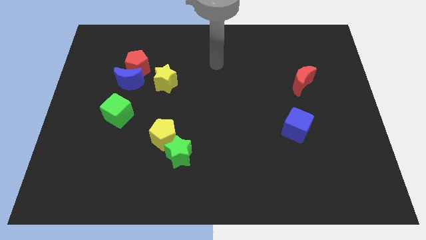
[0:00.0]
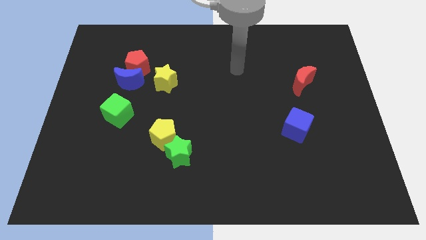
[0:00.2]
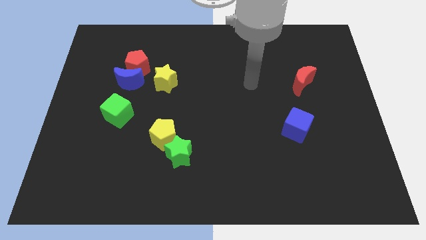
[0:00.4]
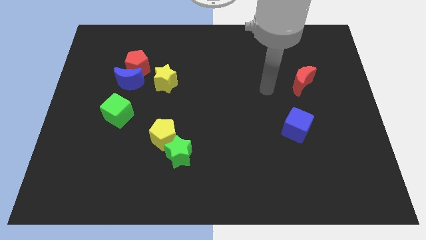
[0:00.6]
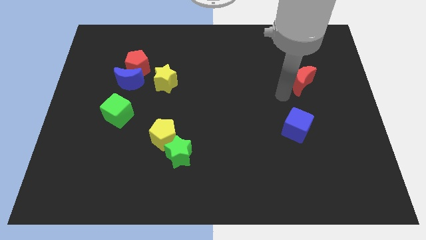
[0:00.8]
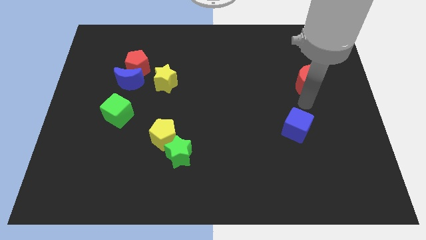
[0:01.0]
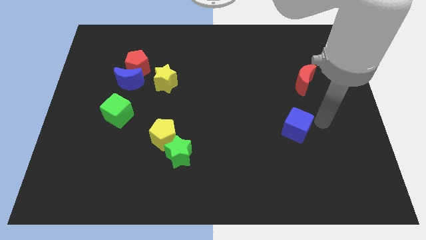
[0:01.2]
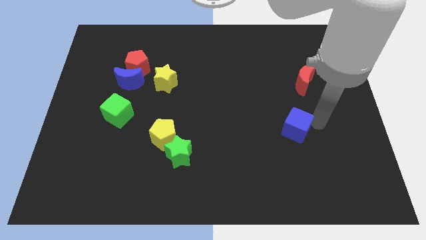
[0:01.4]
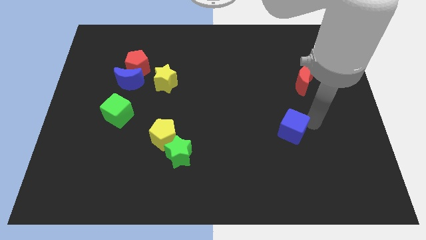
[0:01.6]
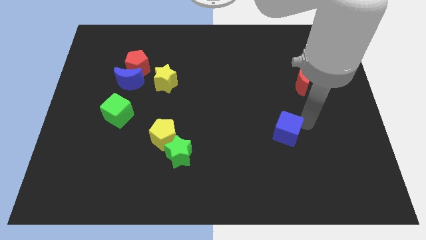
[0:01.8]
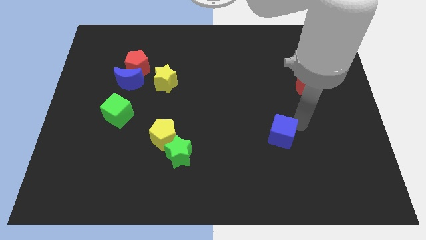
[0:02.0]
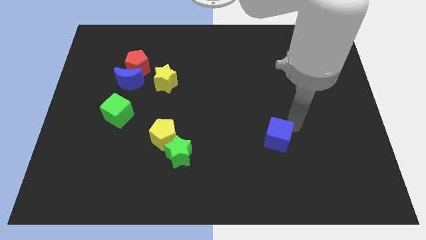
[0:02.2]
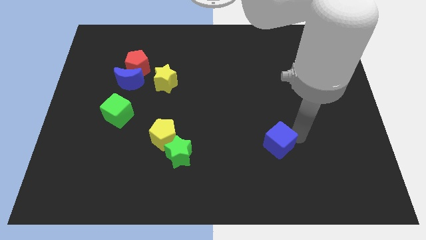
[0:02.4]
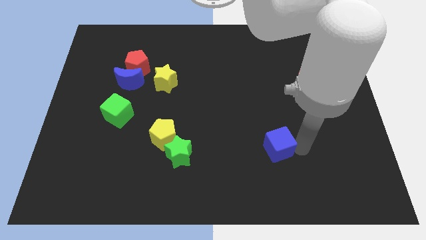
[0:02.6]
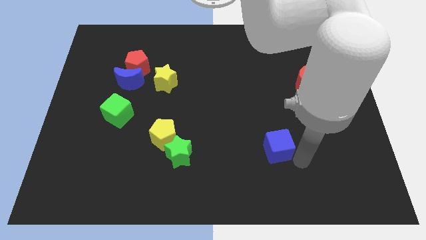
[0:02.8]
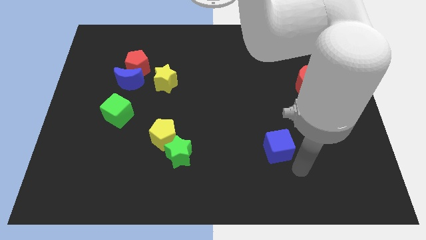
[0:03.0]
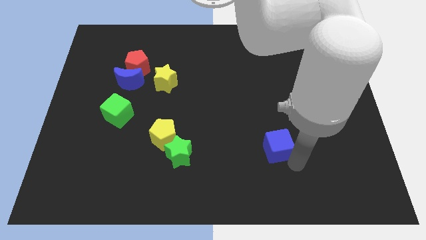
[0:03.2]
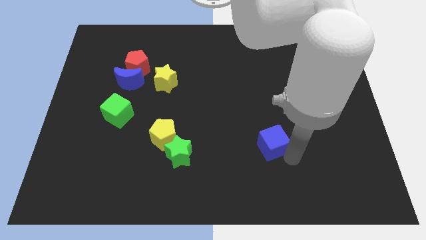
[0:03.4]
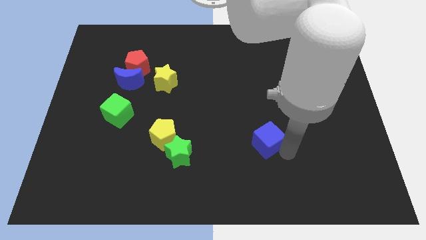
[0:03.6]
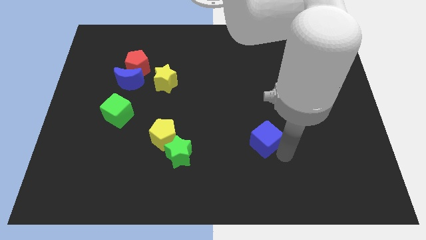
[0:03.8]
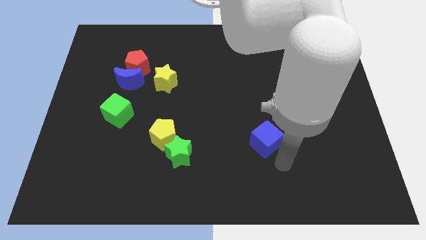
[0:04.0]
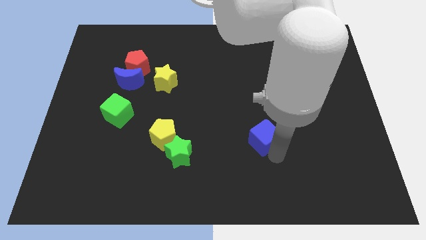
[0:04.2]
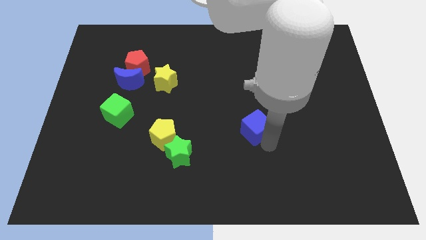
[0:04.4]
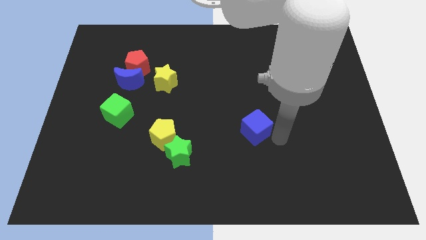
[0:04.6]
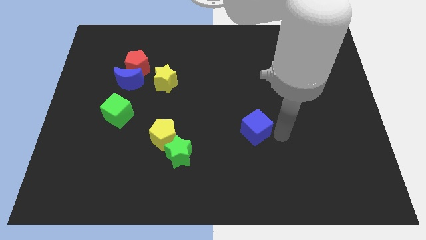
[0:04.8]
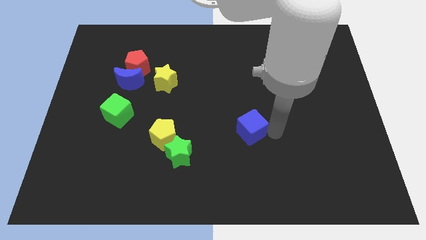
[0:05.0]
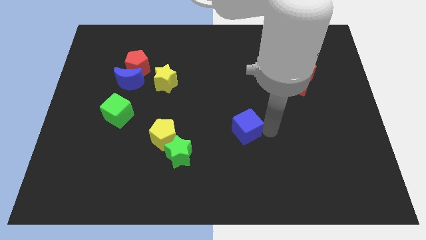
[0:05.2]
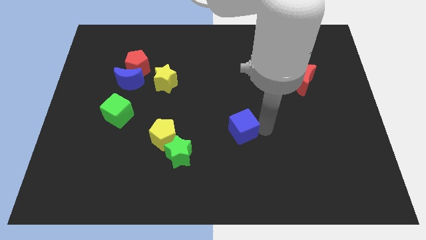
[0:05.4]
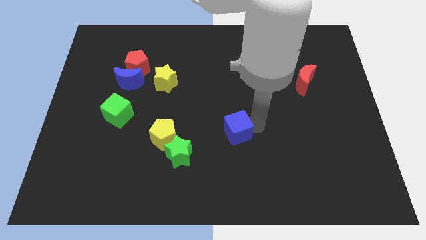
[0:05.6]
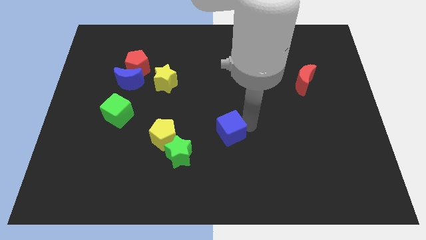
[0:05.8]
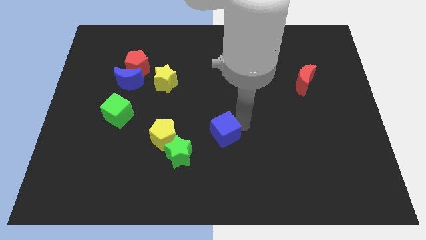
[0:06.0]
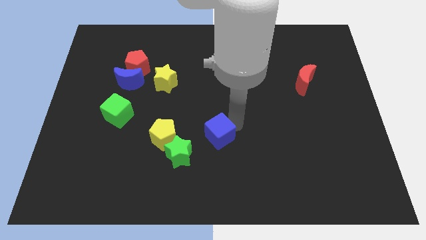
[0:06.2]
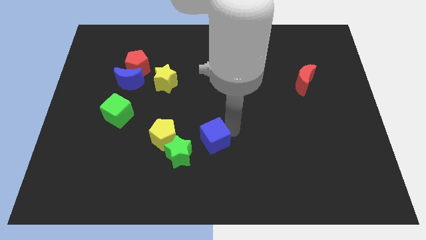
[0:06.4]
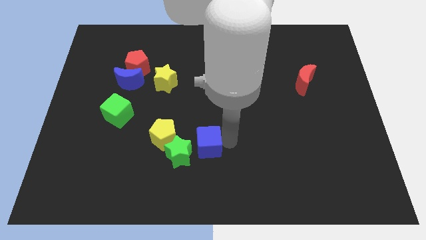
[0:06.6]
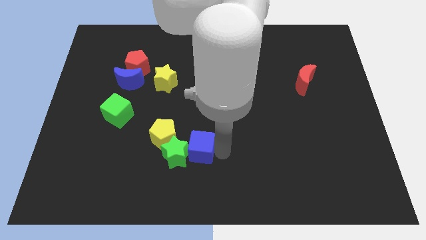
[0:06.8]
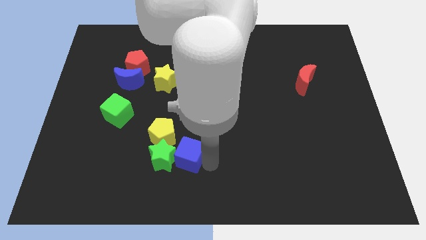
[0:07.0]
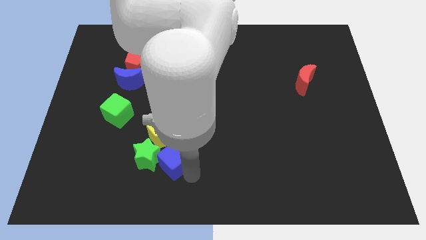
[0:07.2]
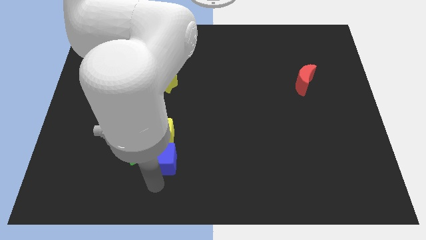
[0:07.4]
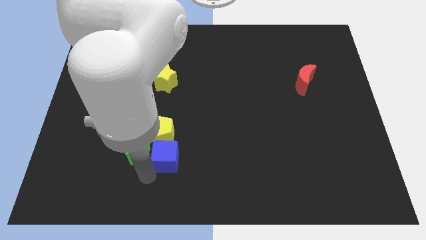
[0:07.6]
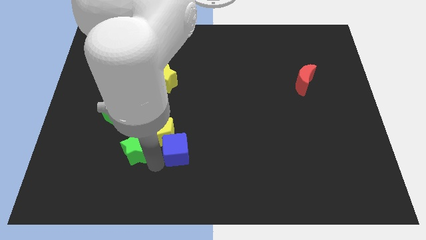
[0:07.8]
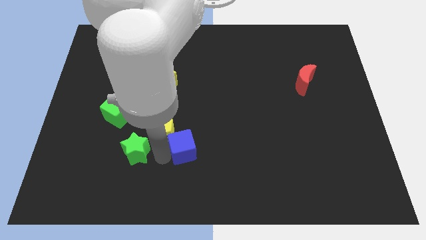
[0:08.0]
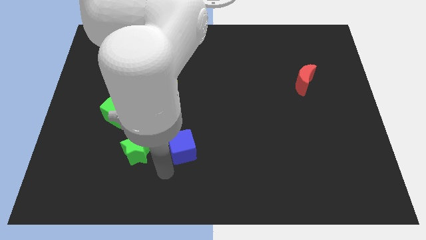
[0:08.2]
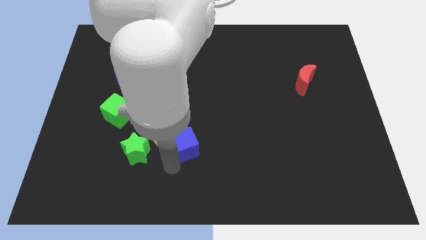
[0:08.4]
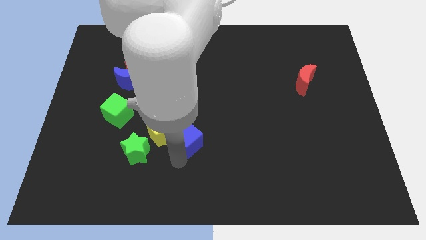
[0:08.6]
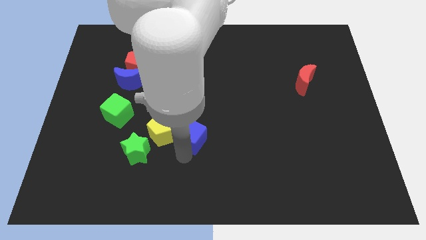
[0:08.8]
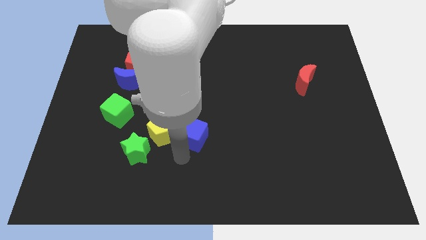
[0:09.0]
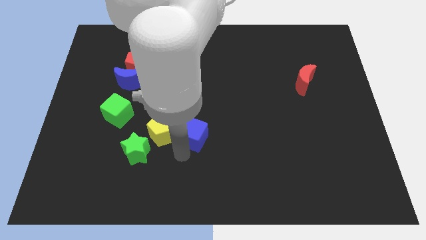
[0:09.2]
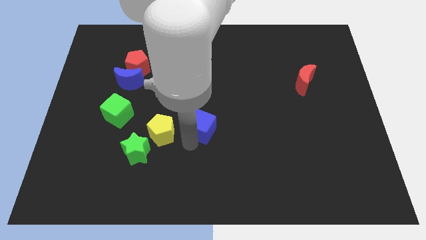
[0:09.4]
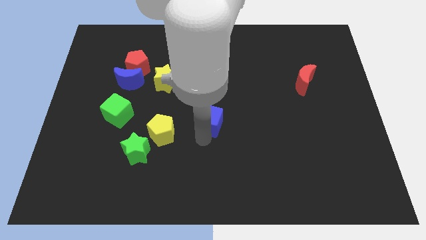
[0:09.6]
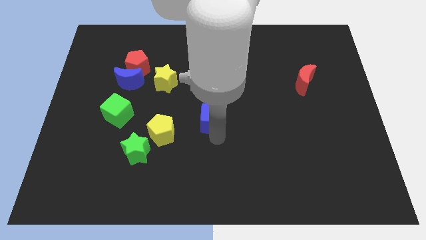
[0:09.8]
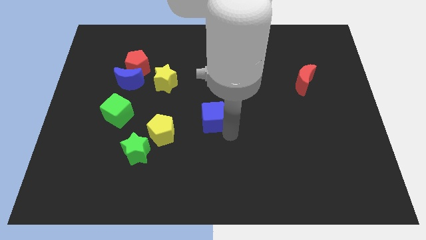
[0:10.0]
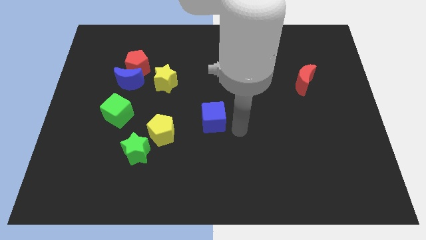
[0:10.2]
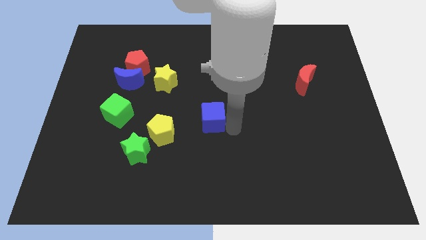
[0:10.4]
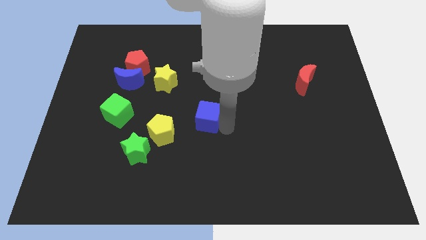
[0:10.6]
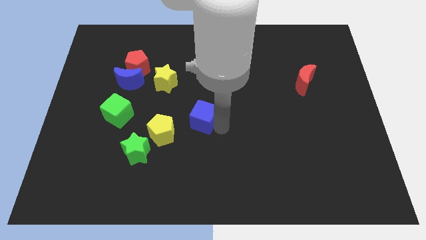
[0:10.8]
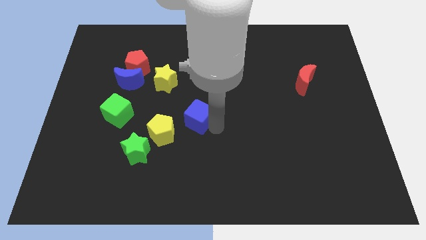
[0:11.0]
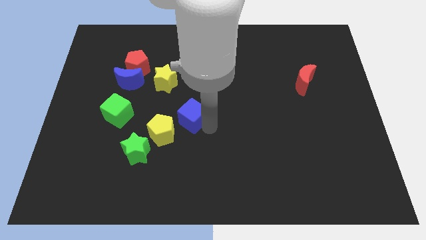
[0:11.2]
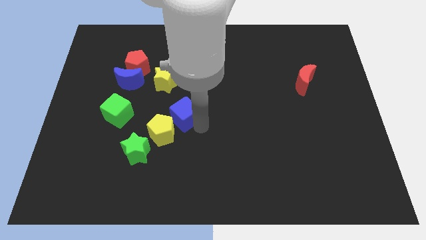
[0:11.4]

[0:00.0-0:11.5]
slide the blue cube to the top of the yellow pentagon

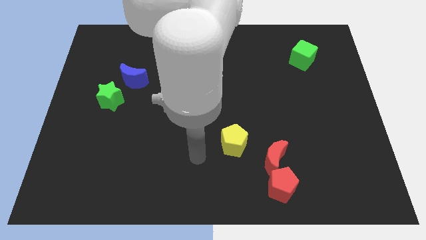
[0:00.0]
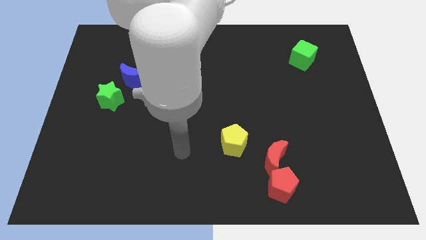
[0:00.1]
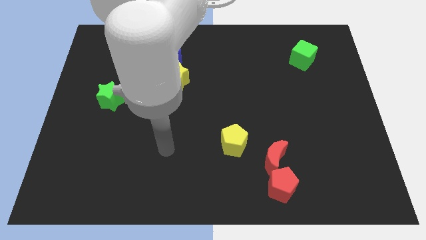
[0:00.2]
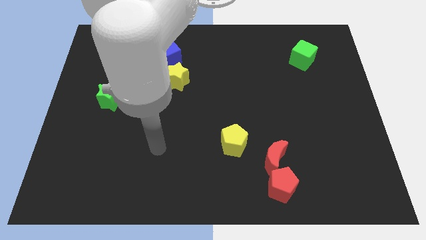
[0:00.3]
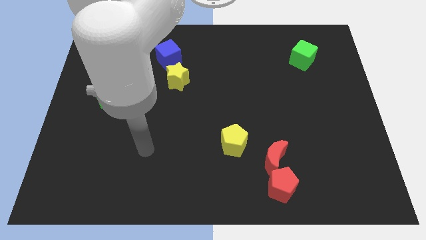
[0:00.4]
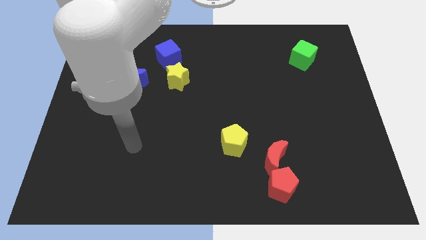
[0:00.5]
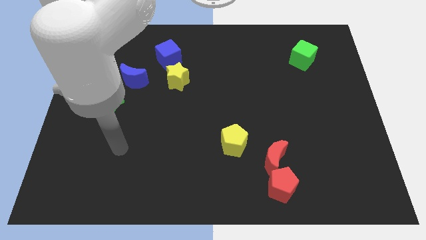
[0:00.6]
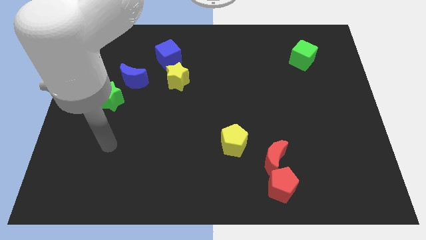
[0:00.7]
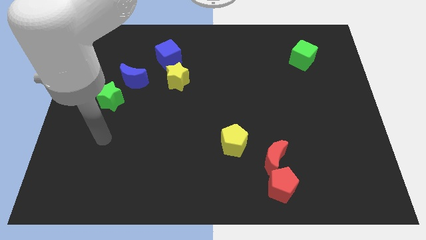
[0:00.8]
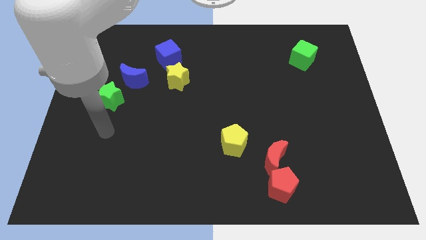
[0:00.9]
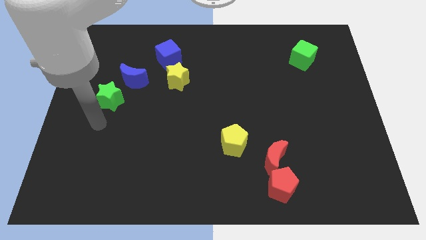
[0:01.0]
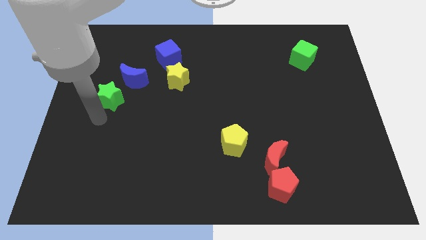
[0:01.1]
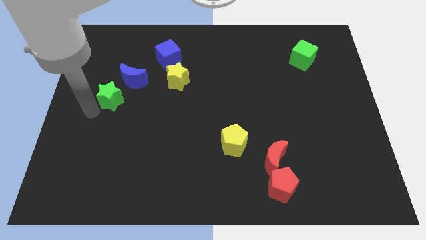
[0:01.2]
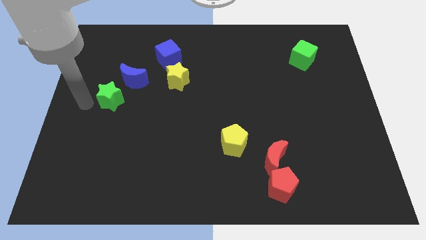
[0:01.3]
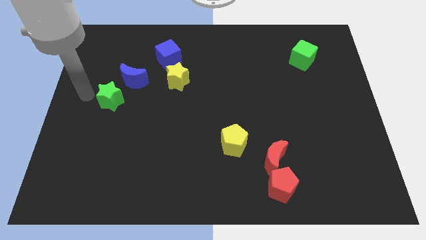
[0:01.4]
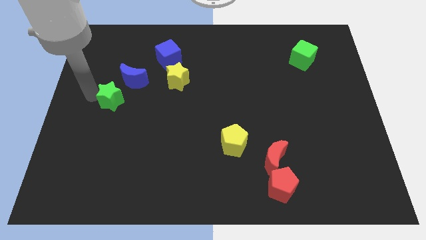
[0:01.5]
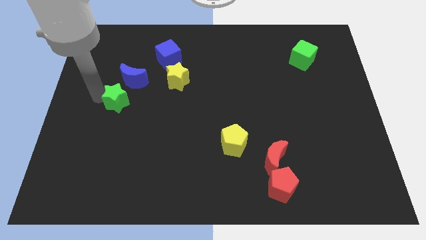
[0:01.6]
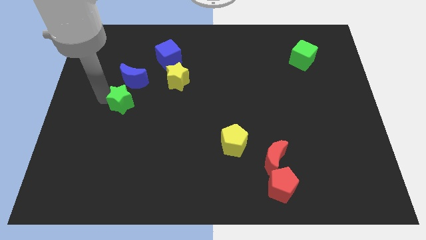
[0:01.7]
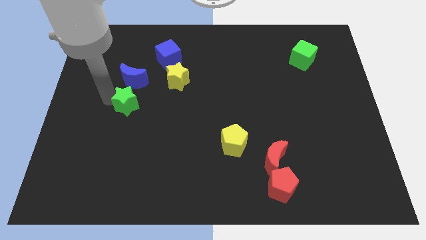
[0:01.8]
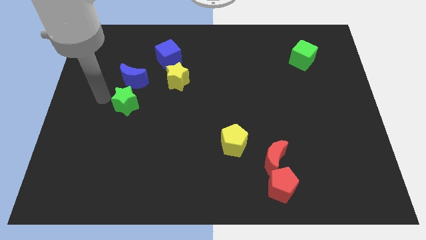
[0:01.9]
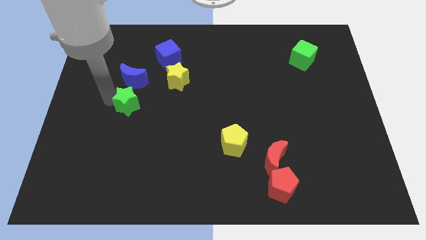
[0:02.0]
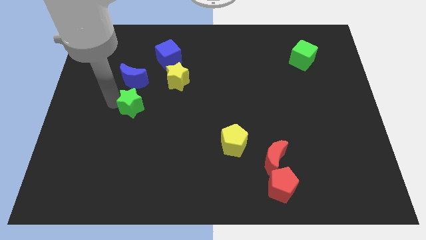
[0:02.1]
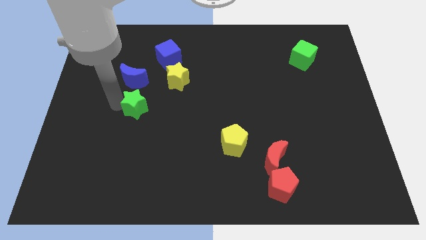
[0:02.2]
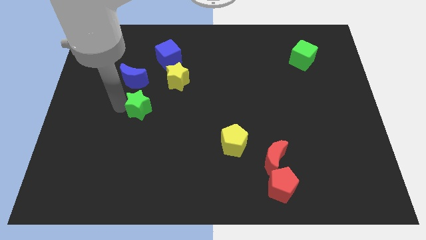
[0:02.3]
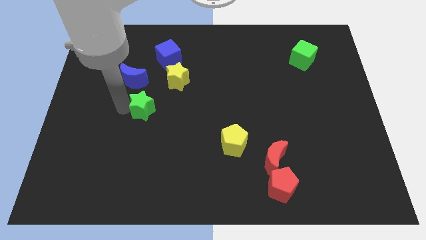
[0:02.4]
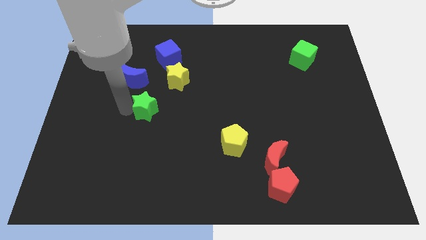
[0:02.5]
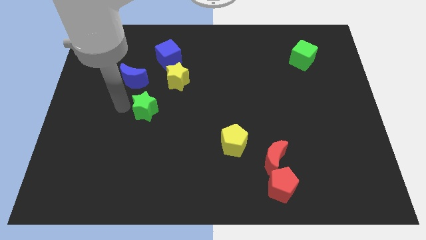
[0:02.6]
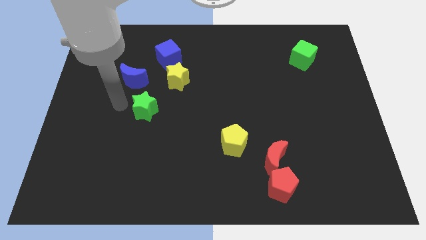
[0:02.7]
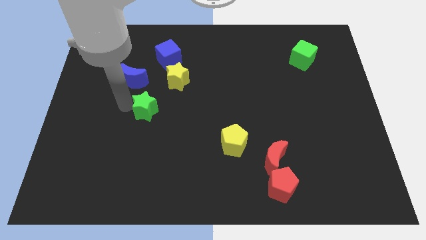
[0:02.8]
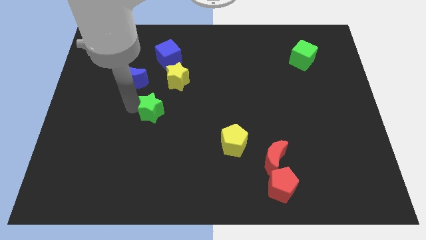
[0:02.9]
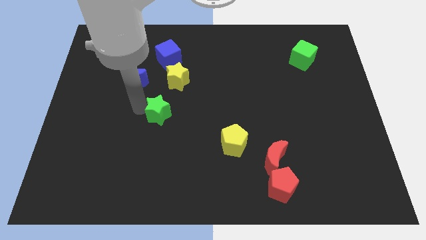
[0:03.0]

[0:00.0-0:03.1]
push the green star below the yellow star
